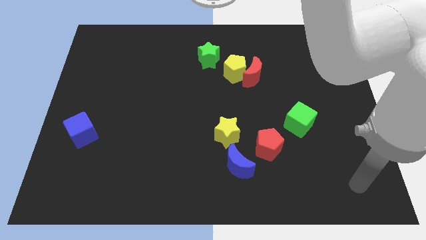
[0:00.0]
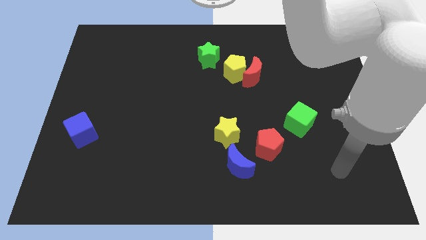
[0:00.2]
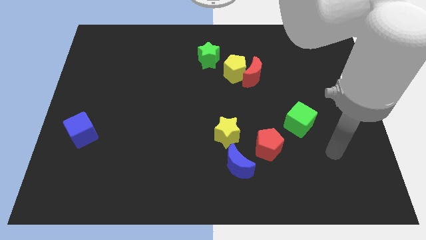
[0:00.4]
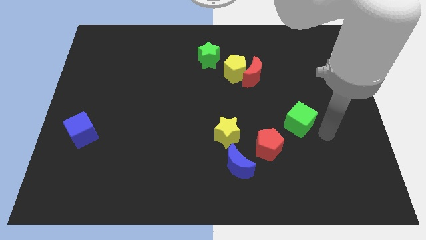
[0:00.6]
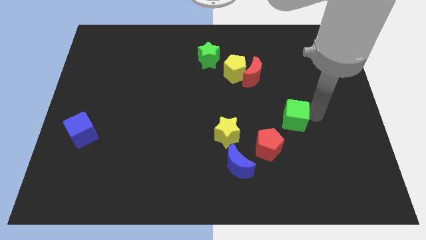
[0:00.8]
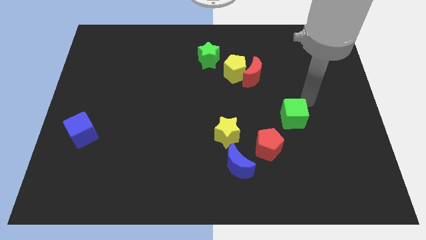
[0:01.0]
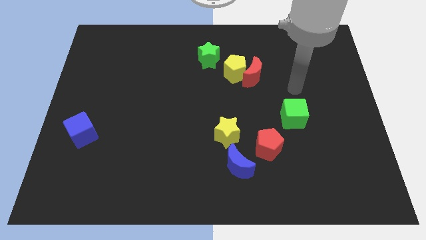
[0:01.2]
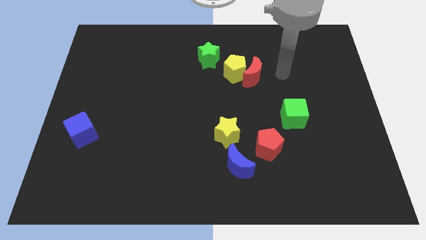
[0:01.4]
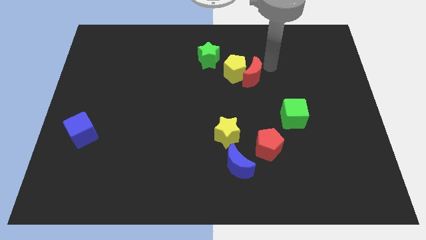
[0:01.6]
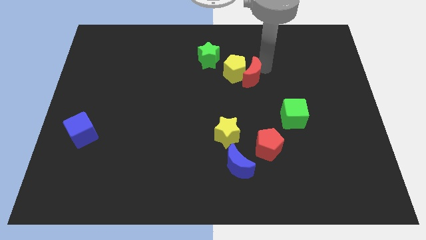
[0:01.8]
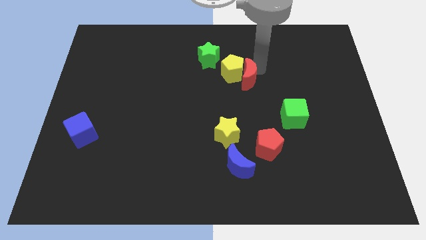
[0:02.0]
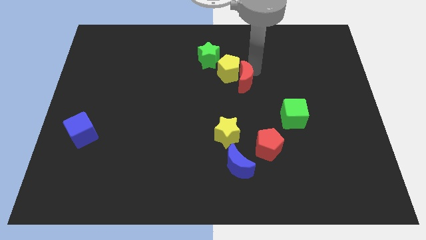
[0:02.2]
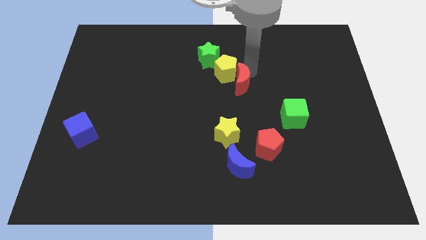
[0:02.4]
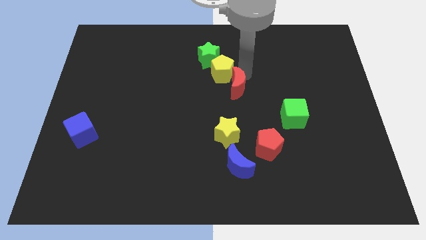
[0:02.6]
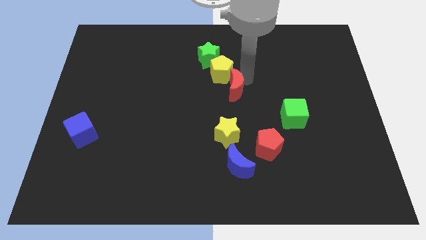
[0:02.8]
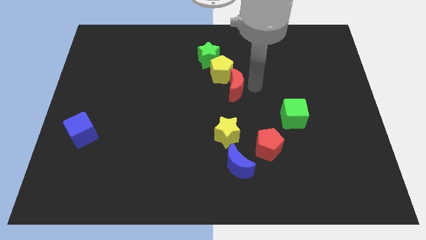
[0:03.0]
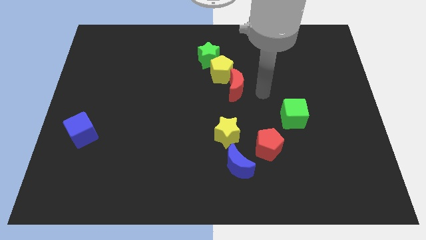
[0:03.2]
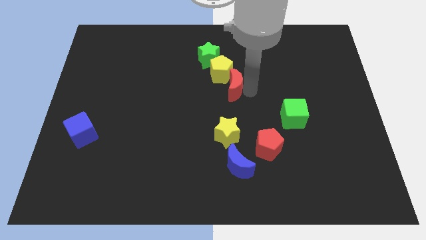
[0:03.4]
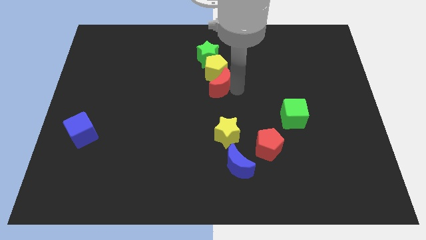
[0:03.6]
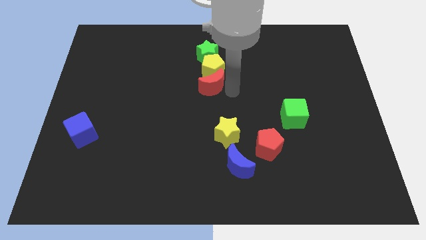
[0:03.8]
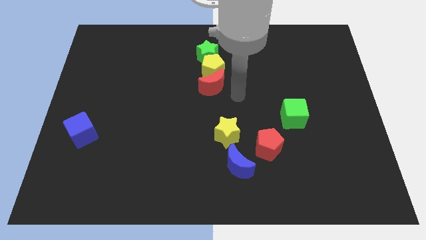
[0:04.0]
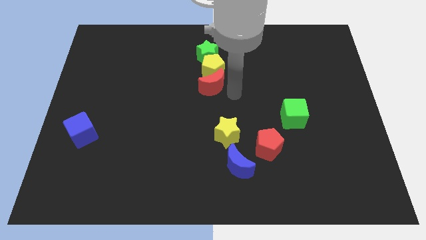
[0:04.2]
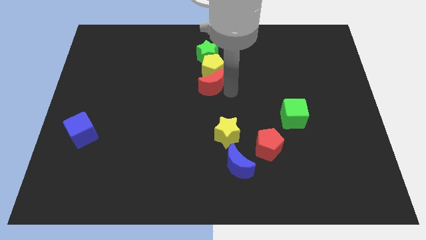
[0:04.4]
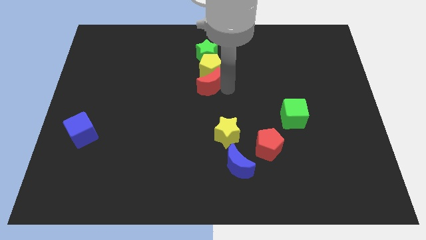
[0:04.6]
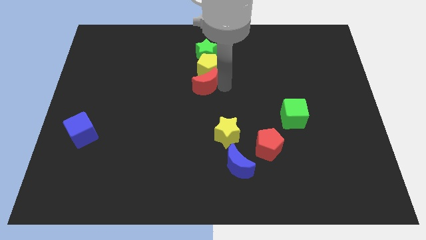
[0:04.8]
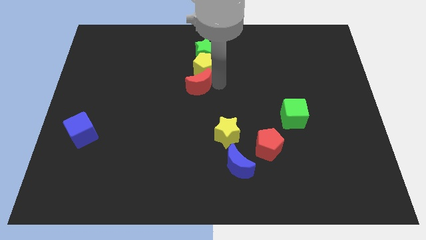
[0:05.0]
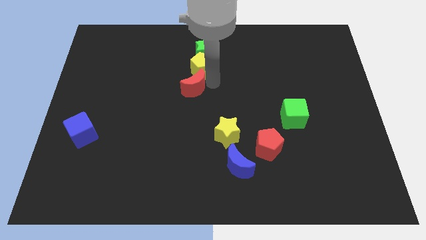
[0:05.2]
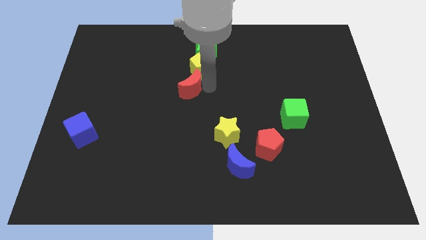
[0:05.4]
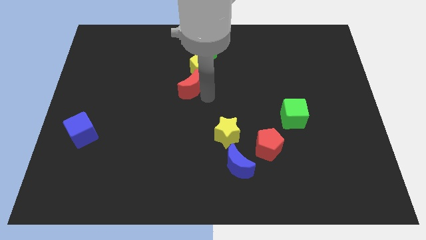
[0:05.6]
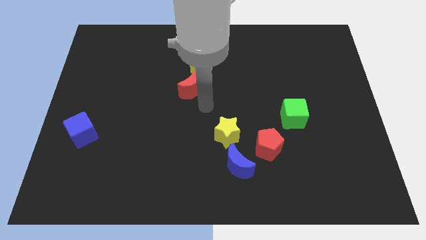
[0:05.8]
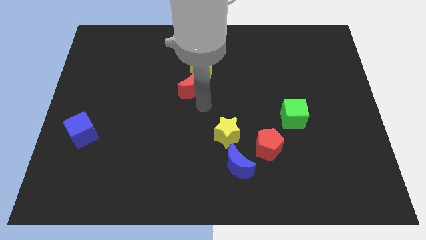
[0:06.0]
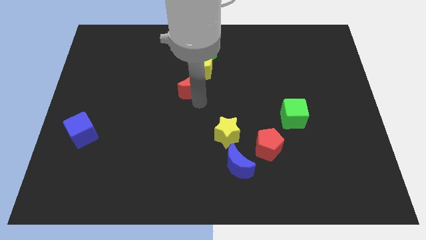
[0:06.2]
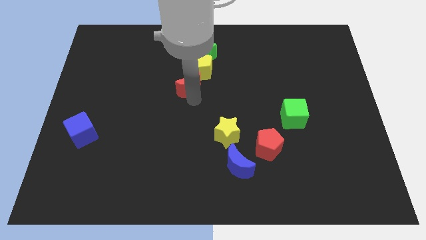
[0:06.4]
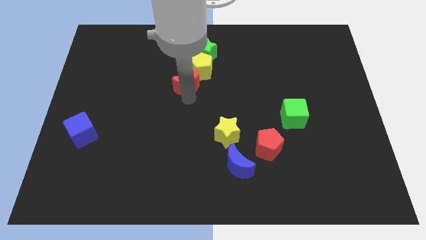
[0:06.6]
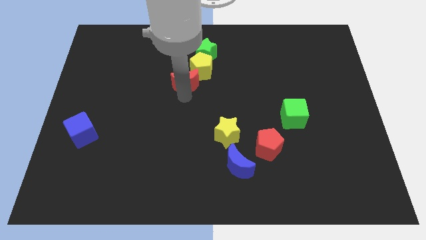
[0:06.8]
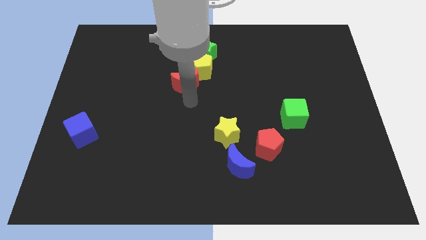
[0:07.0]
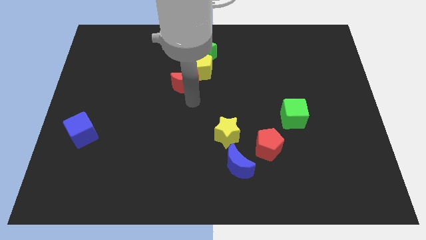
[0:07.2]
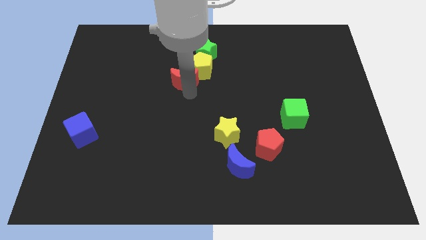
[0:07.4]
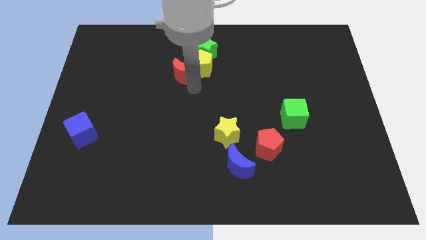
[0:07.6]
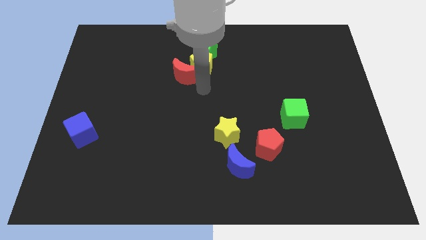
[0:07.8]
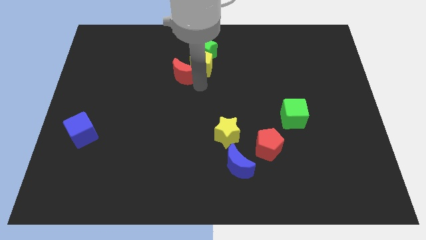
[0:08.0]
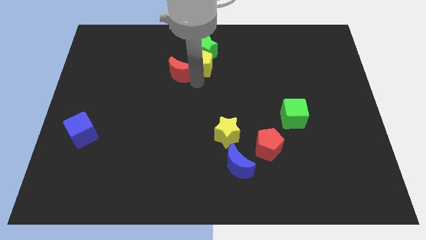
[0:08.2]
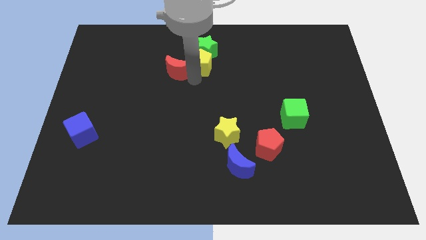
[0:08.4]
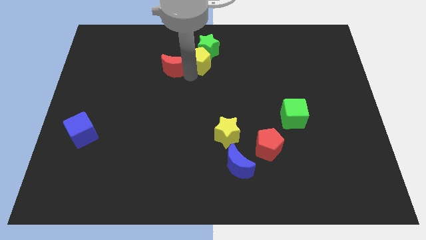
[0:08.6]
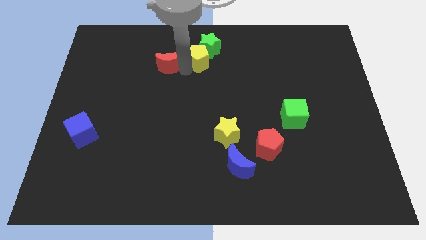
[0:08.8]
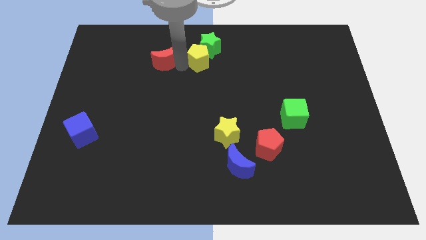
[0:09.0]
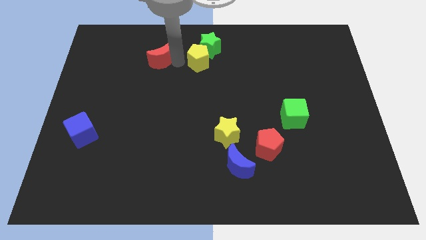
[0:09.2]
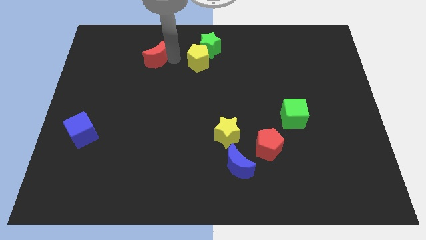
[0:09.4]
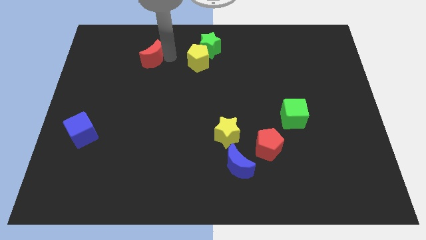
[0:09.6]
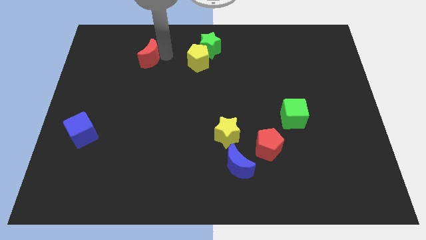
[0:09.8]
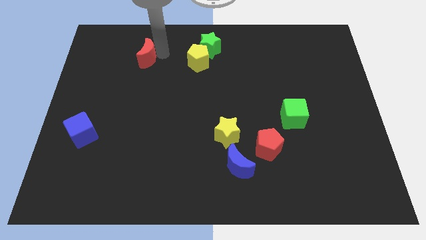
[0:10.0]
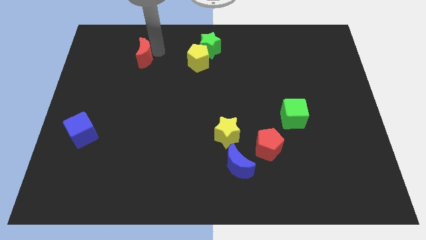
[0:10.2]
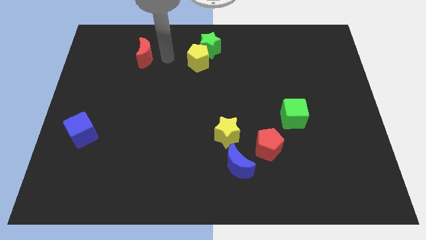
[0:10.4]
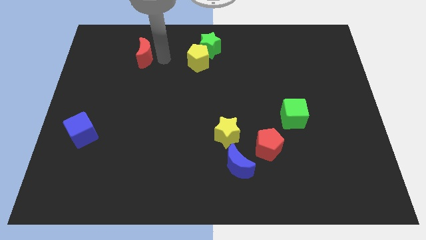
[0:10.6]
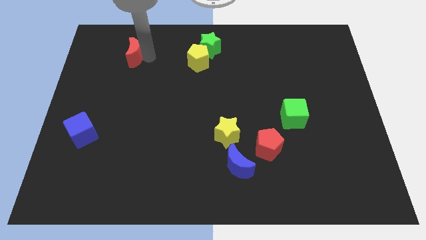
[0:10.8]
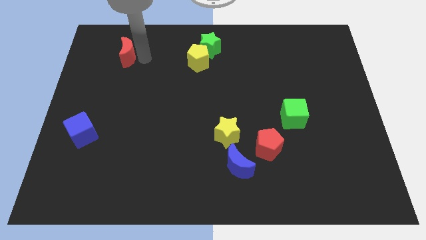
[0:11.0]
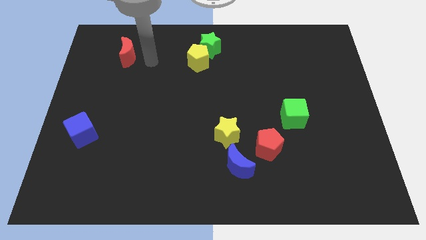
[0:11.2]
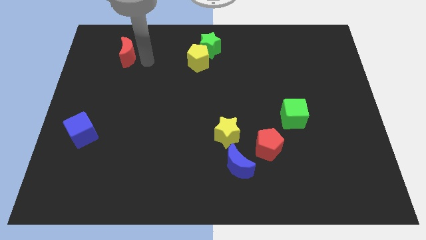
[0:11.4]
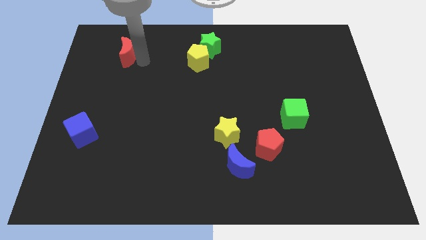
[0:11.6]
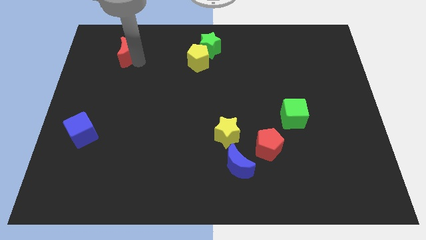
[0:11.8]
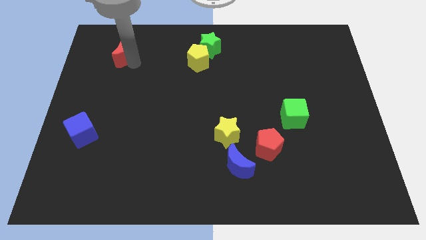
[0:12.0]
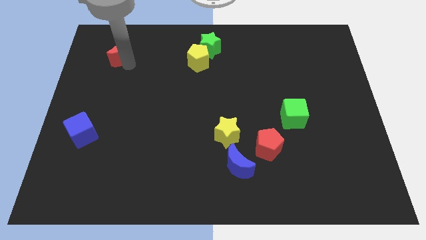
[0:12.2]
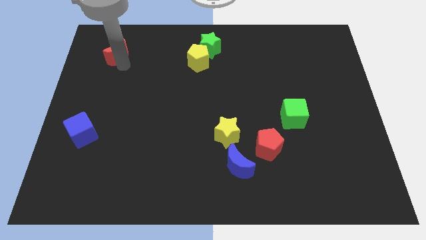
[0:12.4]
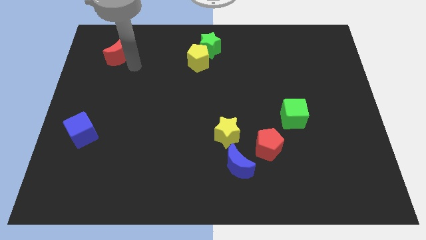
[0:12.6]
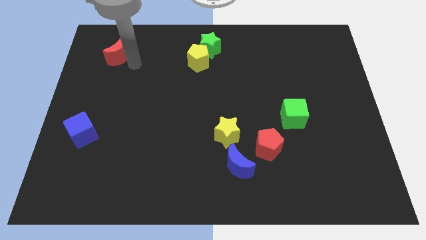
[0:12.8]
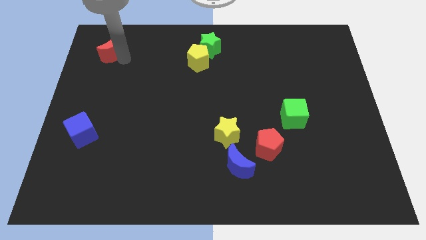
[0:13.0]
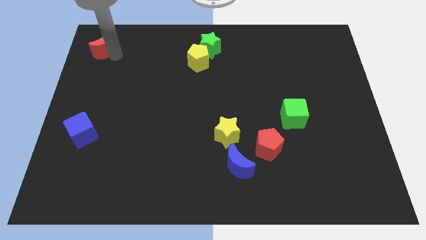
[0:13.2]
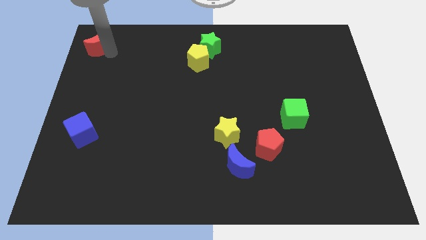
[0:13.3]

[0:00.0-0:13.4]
put the red moon to the top left corner

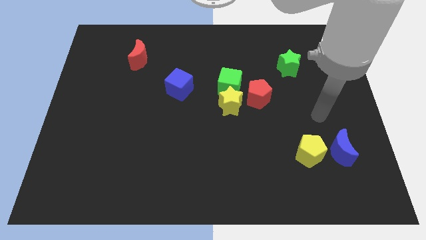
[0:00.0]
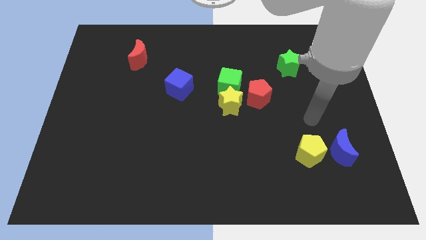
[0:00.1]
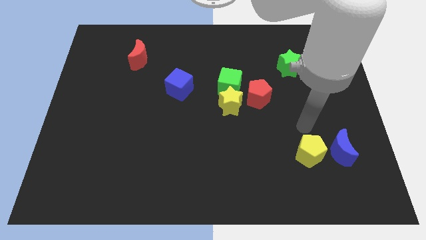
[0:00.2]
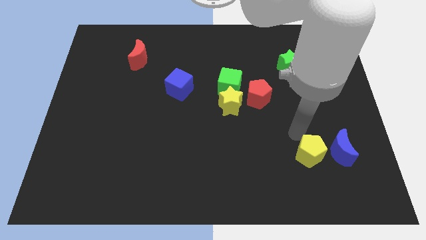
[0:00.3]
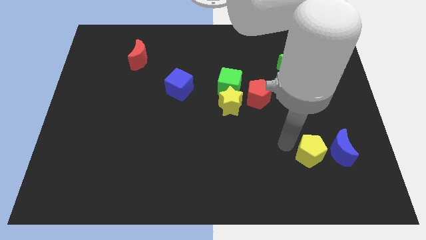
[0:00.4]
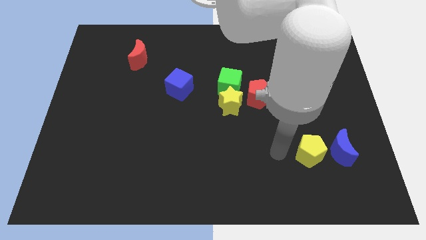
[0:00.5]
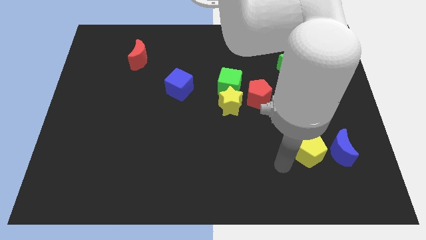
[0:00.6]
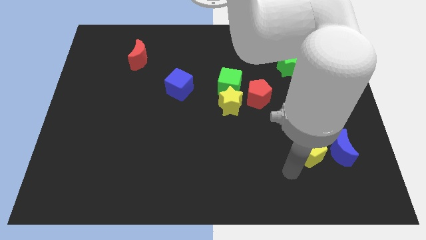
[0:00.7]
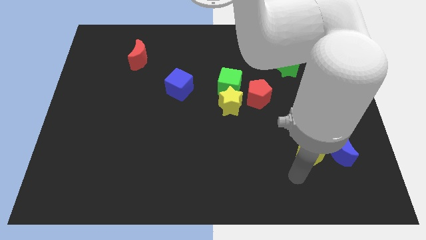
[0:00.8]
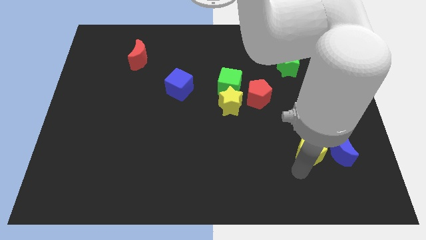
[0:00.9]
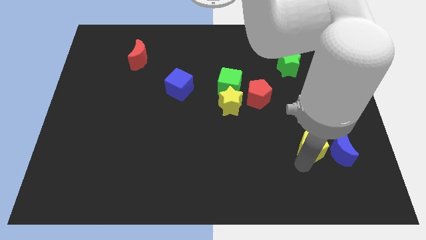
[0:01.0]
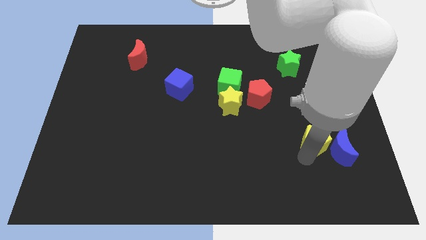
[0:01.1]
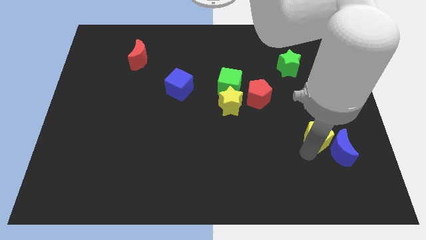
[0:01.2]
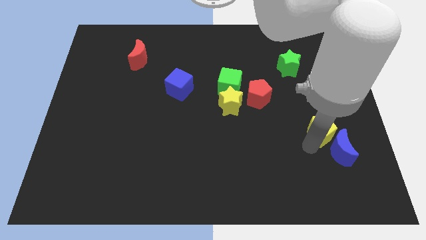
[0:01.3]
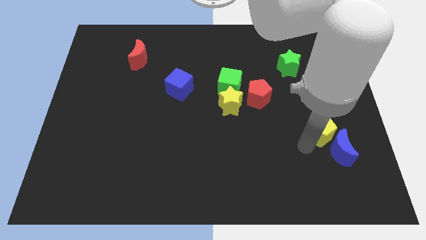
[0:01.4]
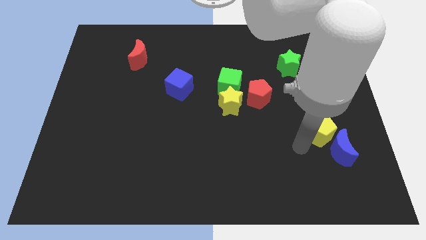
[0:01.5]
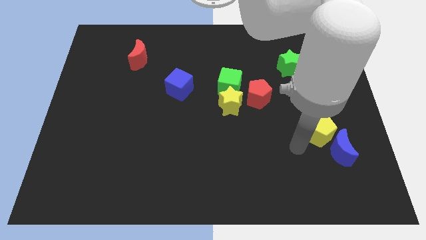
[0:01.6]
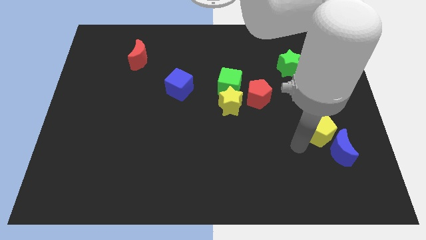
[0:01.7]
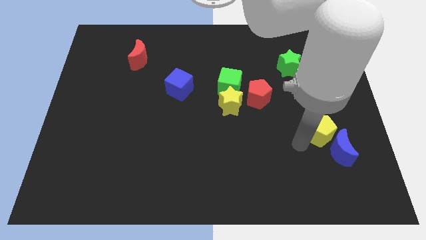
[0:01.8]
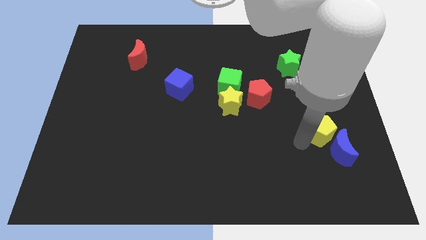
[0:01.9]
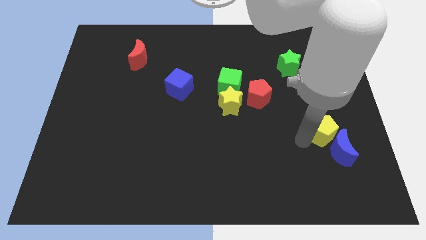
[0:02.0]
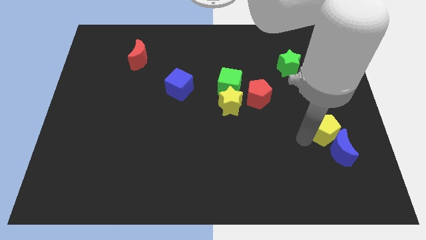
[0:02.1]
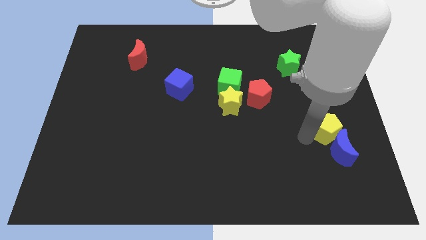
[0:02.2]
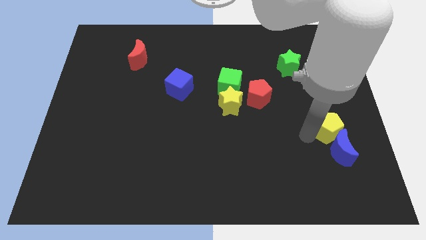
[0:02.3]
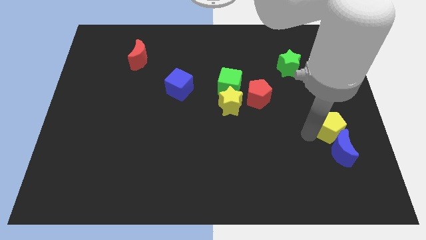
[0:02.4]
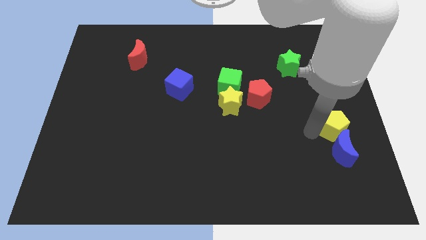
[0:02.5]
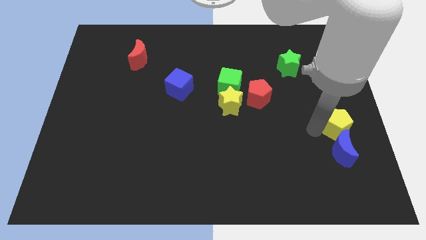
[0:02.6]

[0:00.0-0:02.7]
slide the yellow pentagon to the center right
